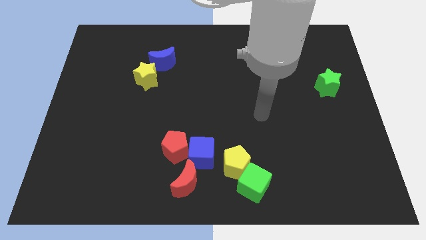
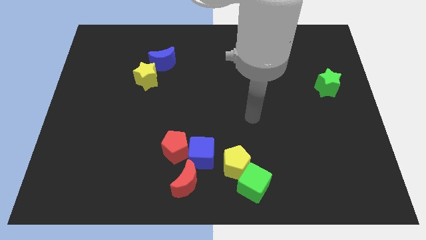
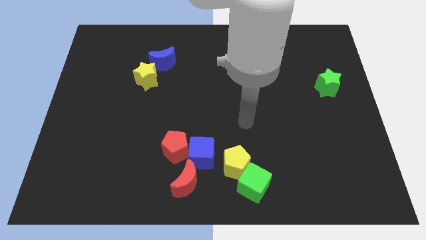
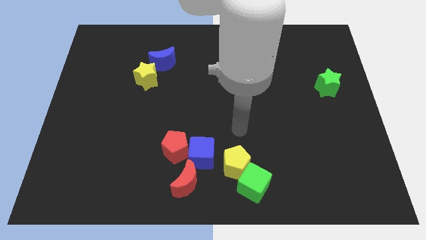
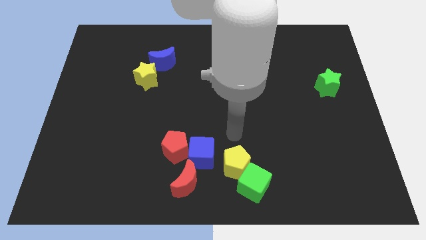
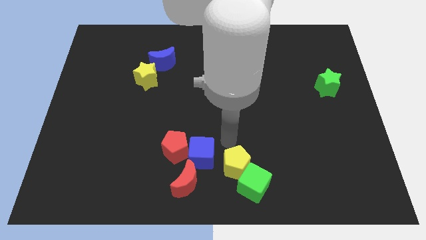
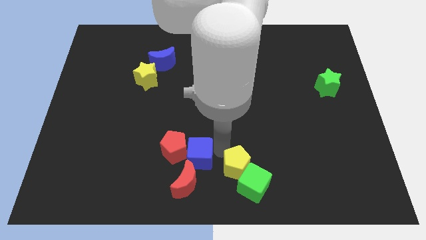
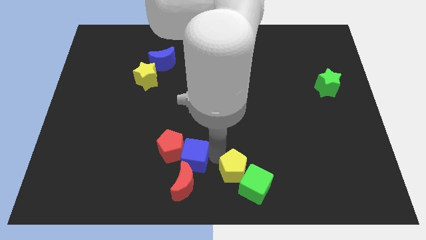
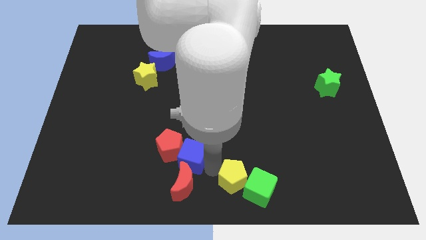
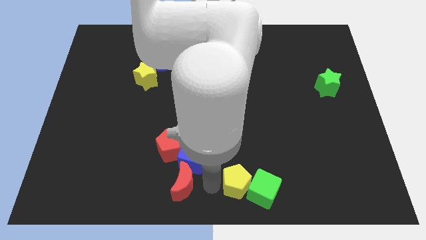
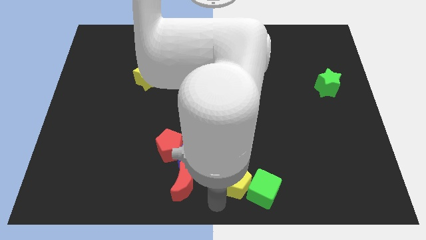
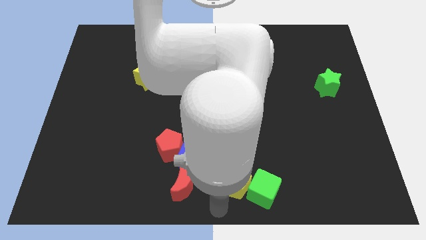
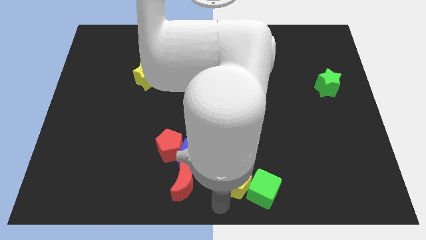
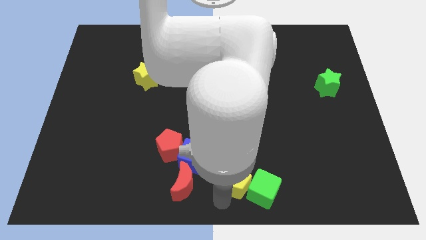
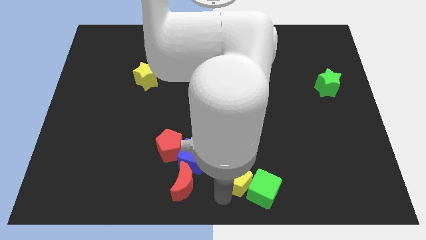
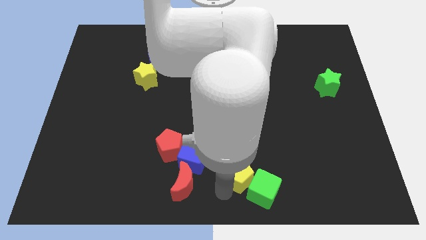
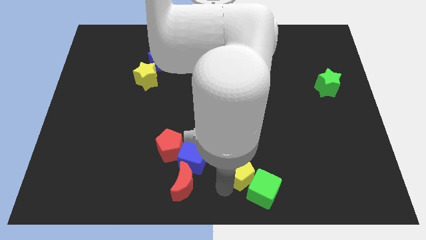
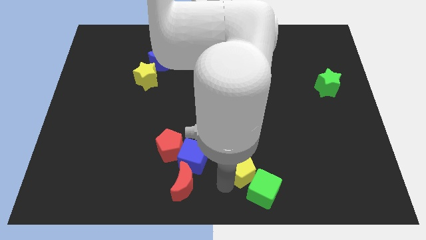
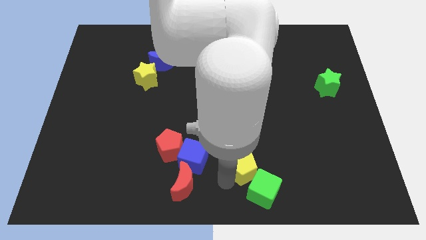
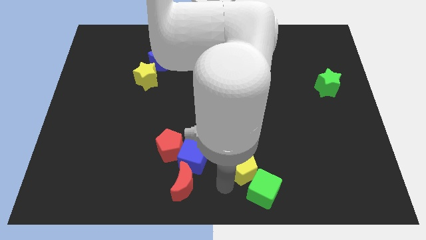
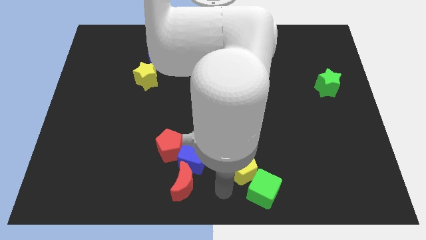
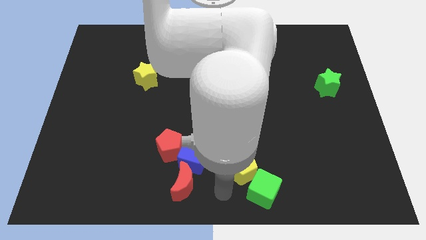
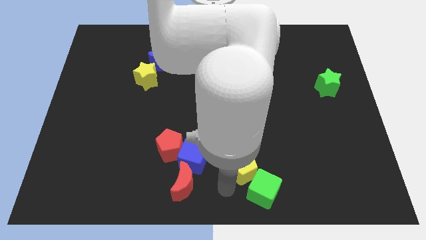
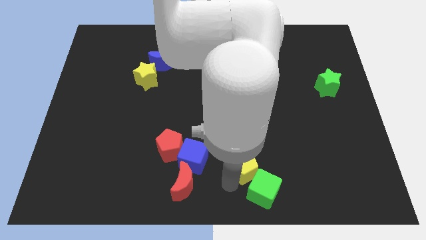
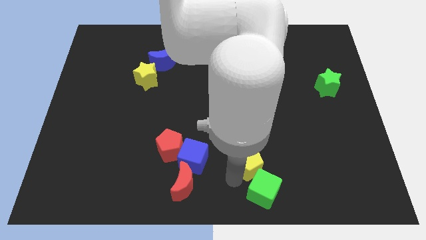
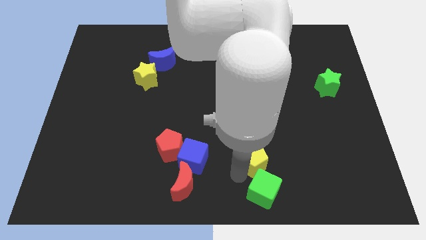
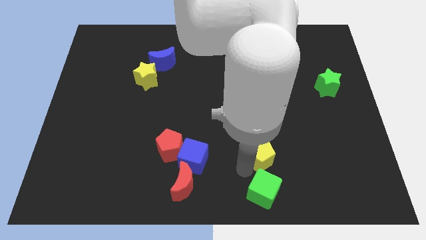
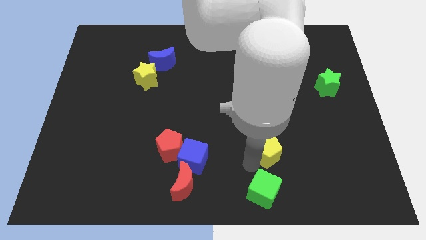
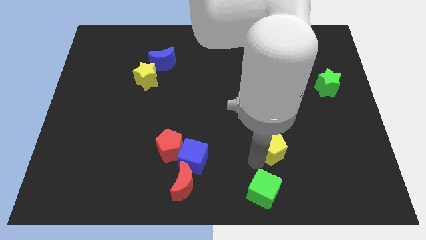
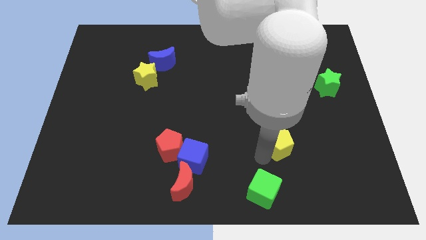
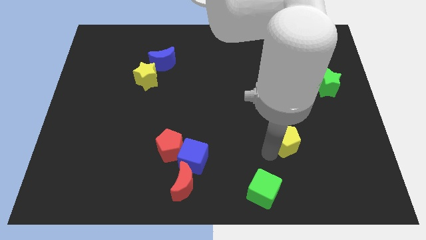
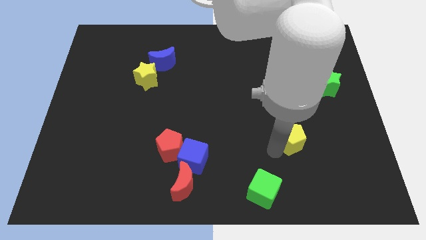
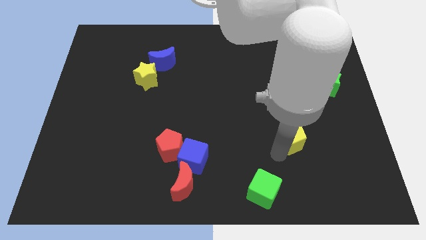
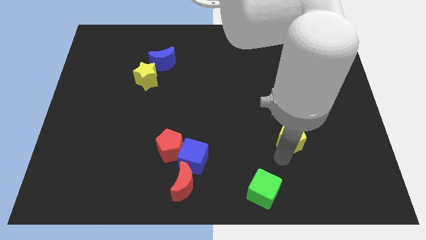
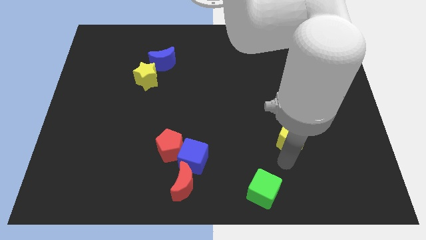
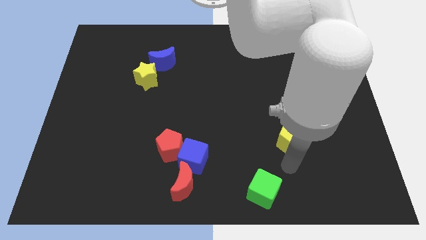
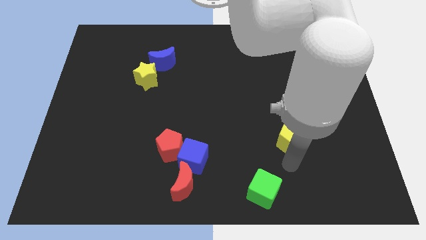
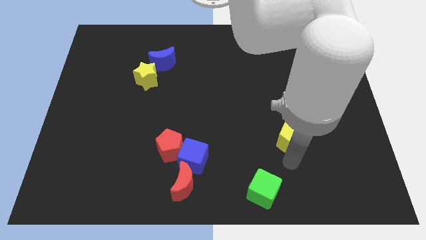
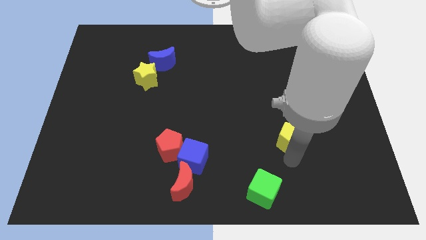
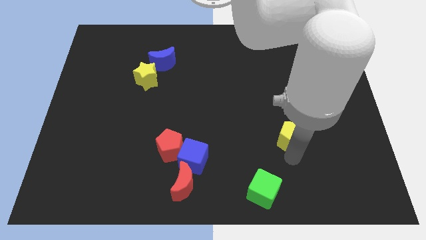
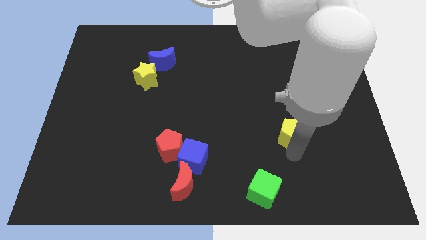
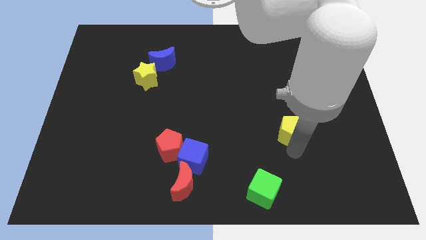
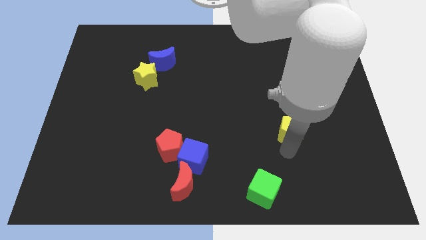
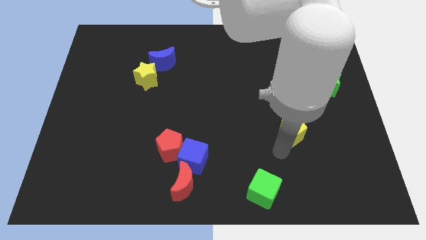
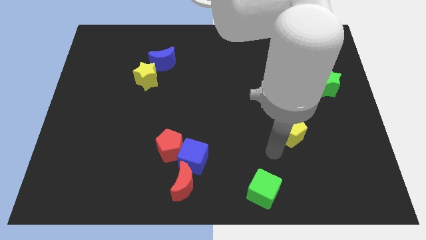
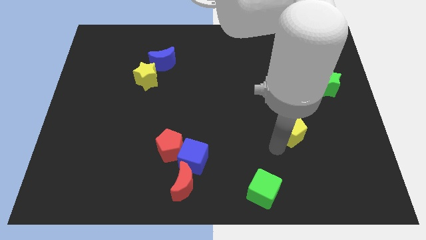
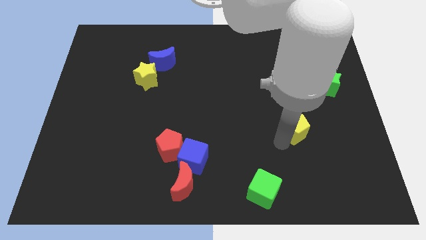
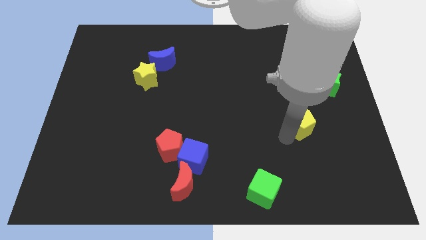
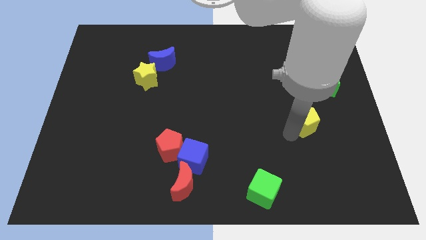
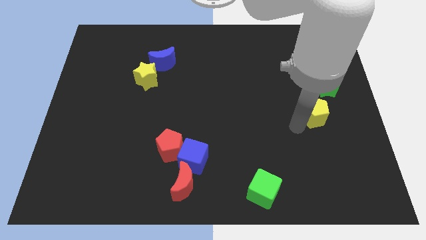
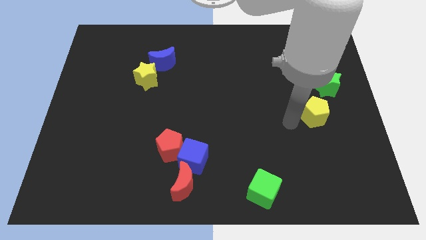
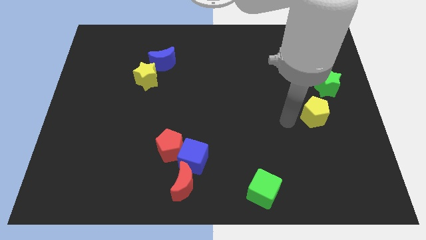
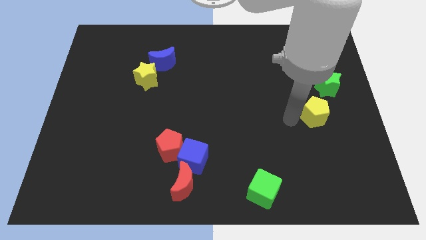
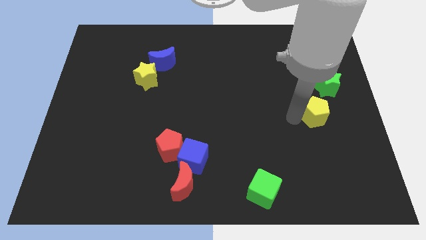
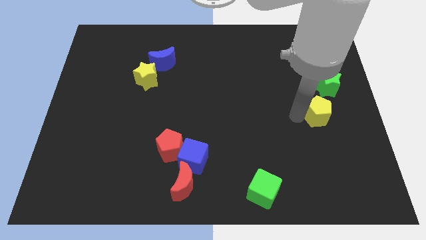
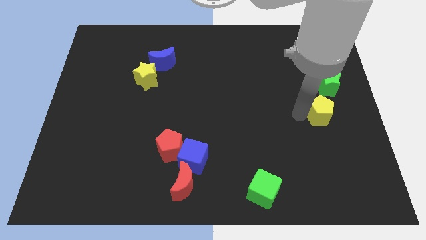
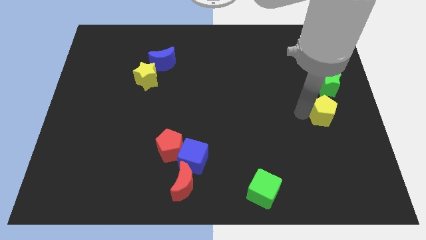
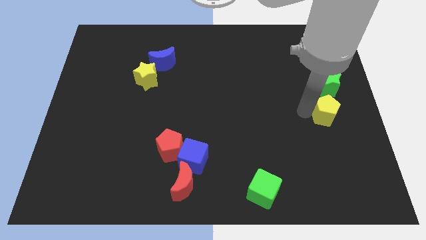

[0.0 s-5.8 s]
put the yellow pentagon to the center right

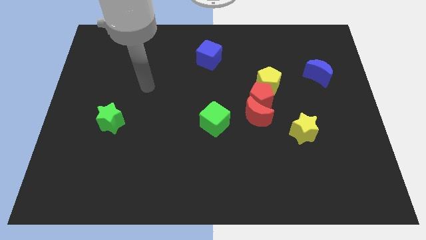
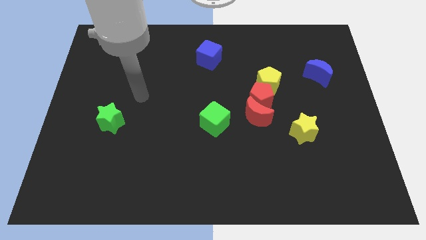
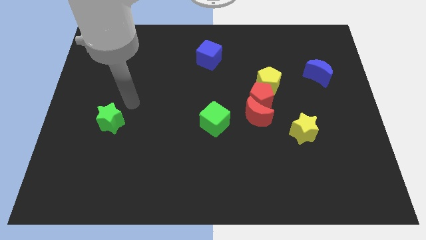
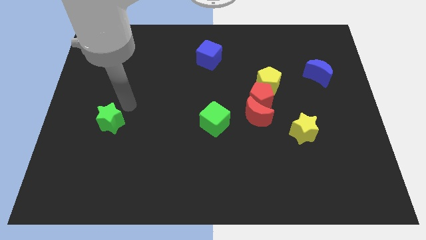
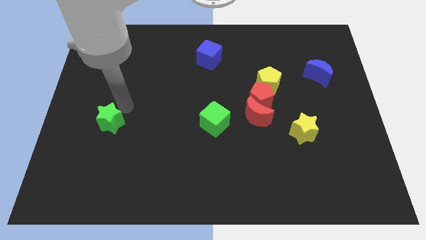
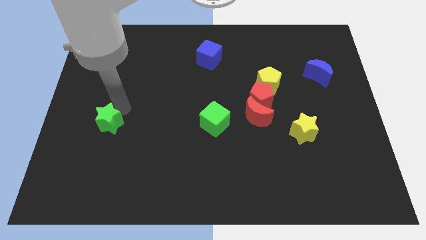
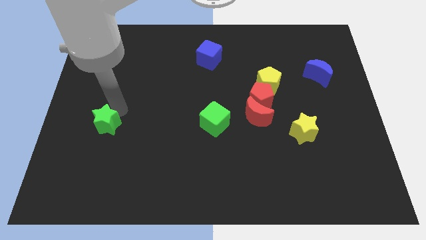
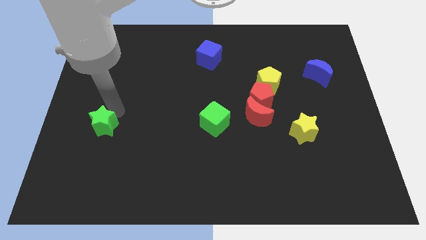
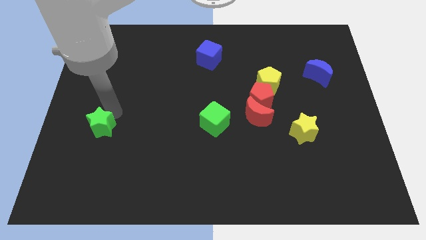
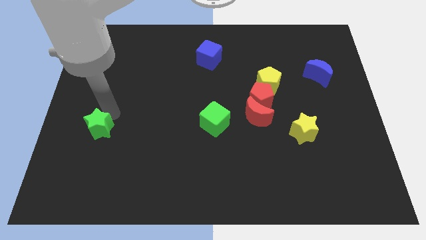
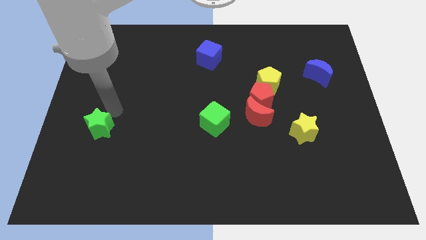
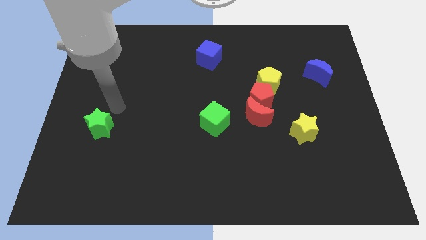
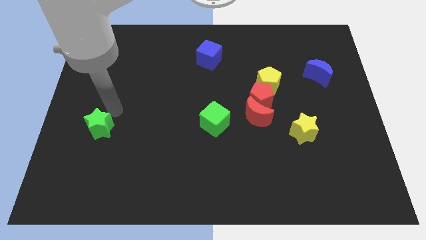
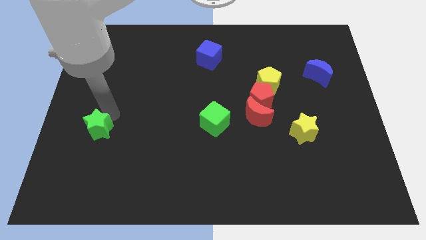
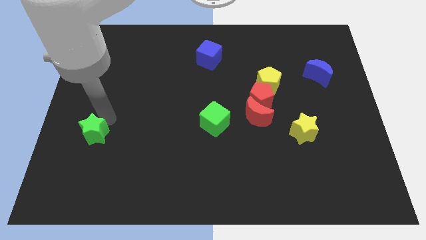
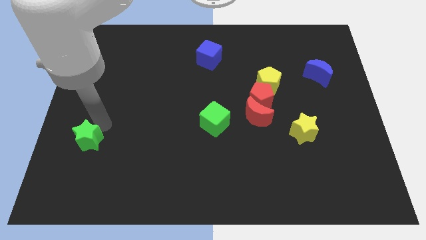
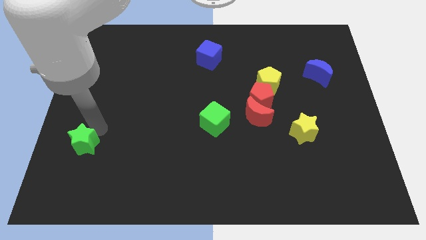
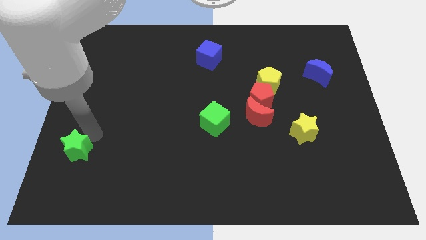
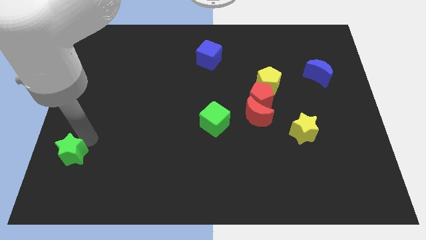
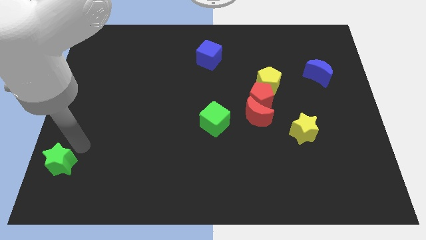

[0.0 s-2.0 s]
slide the green star to the bottom left of the board

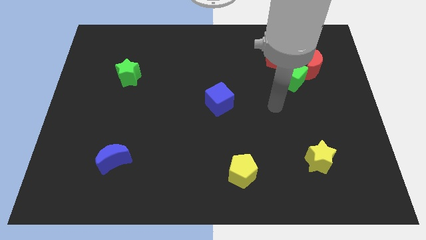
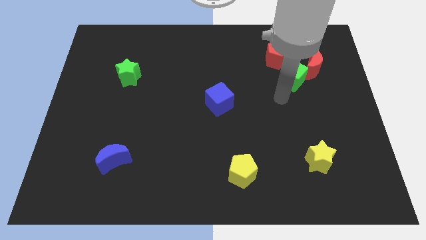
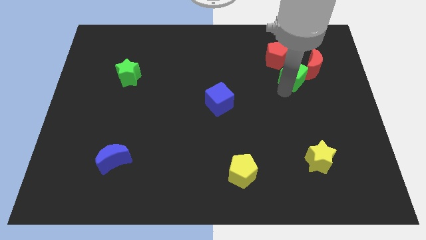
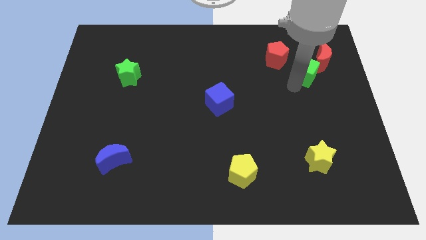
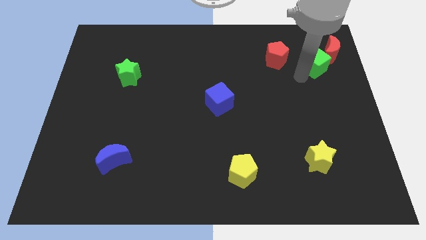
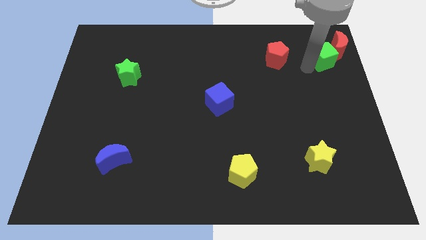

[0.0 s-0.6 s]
slide the red moon to the top right corner
